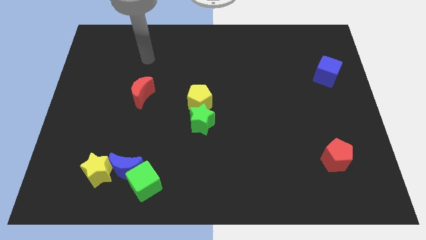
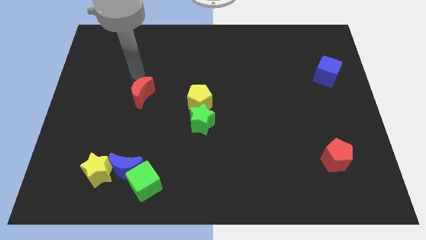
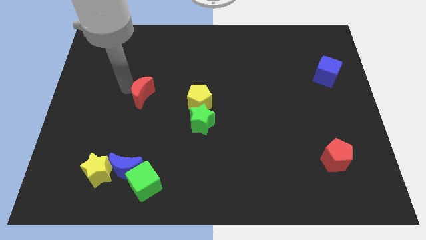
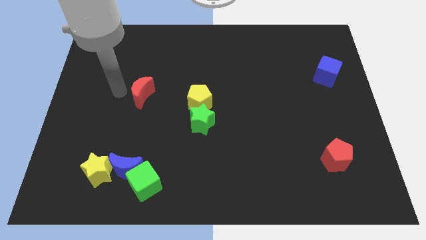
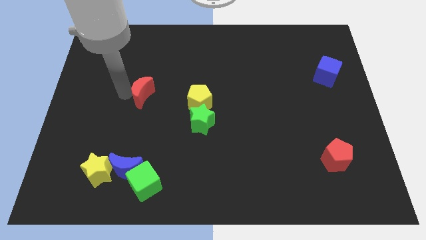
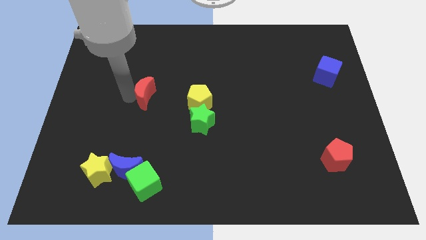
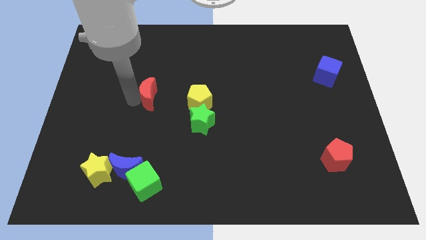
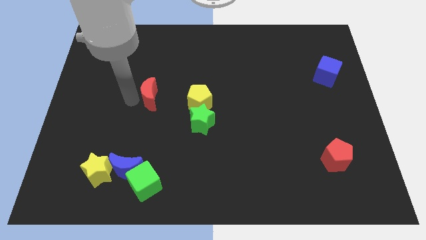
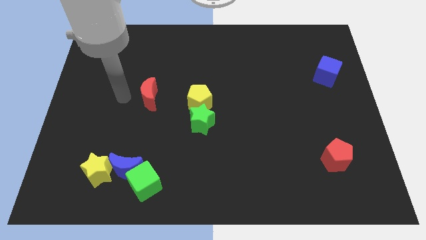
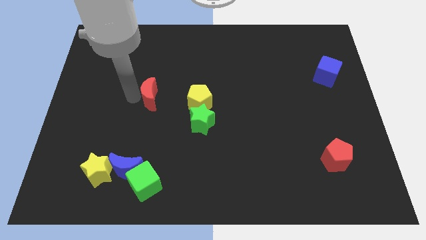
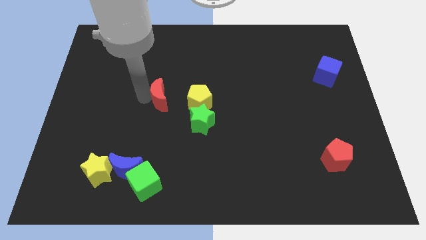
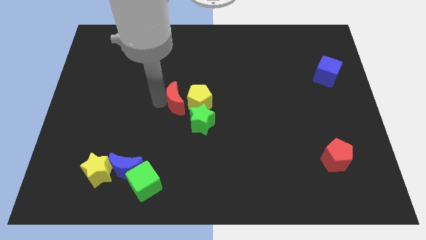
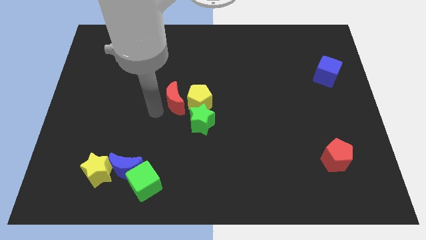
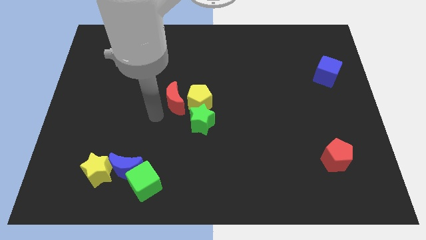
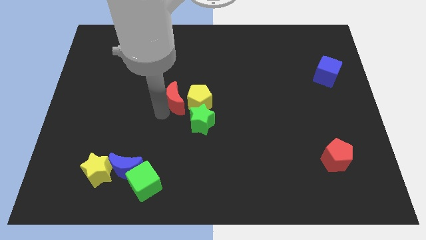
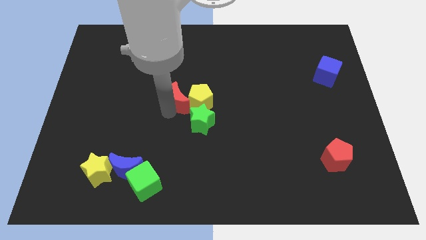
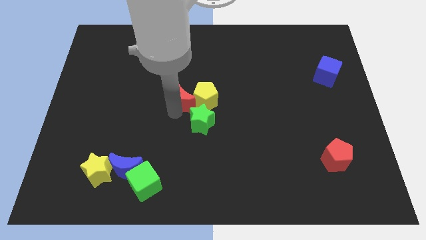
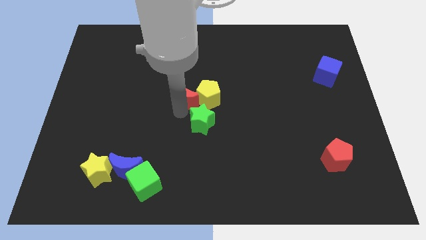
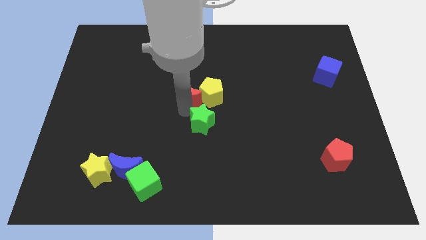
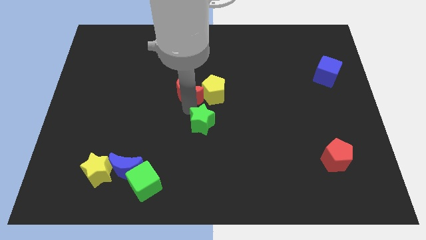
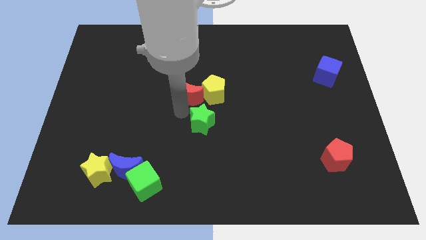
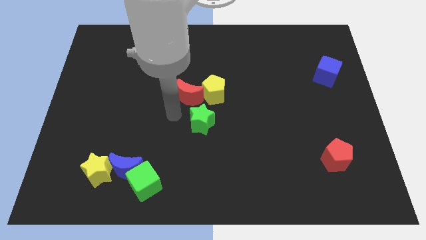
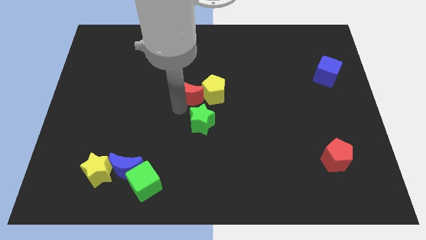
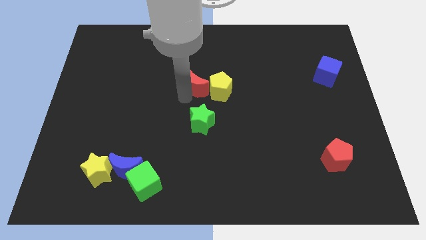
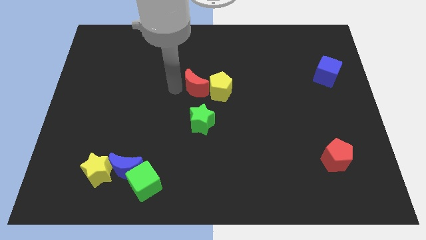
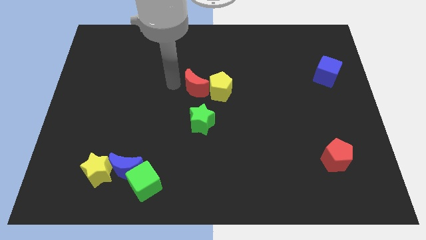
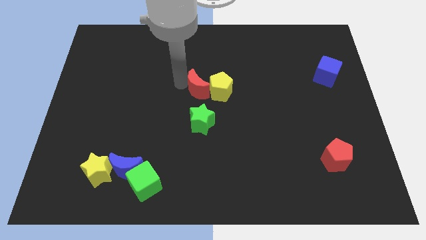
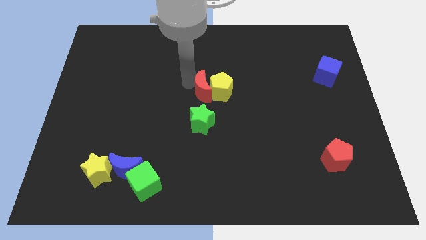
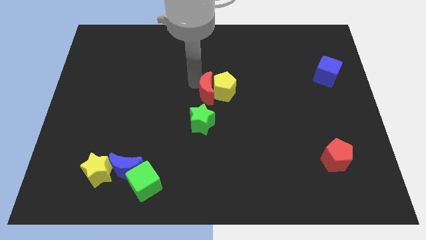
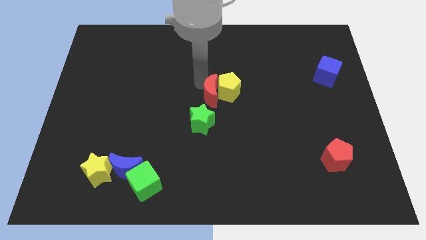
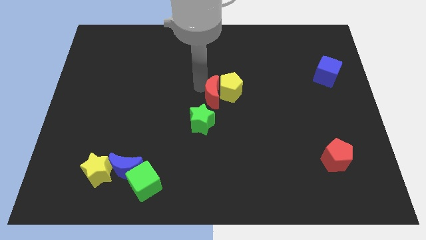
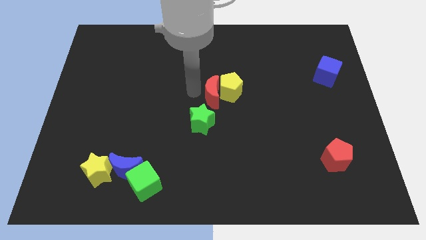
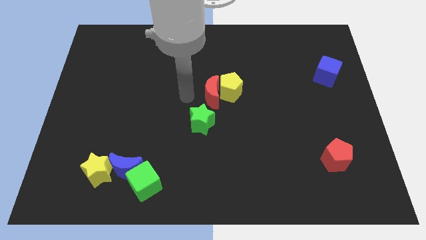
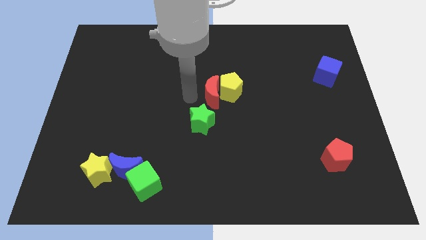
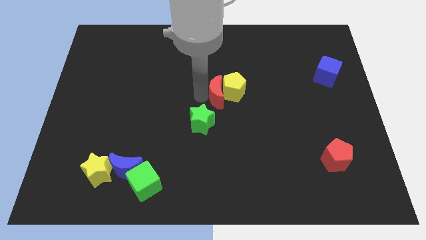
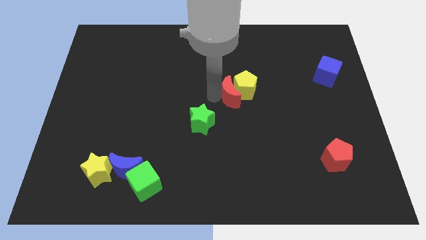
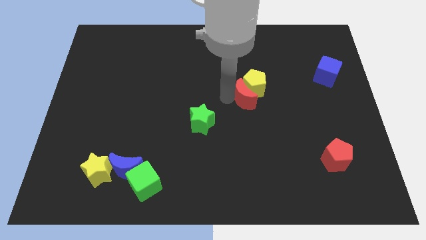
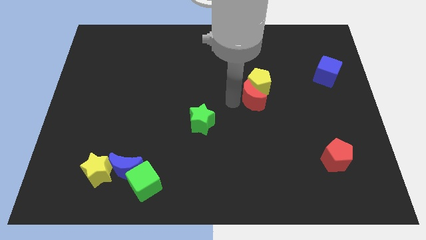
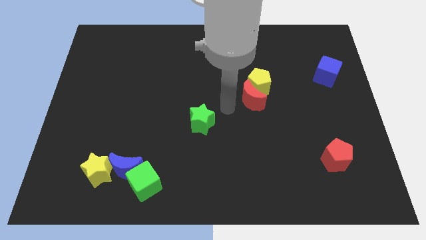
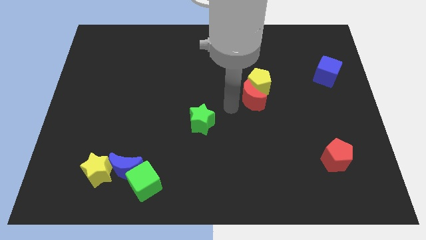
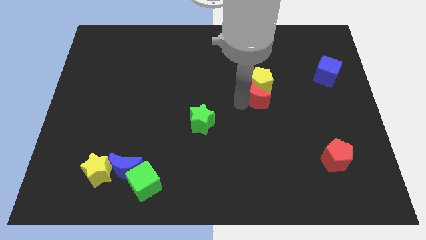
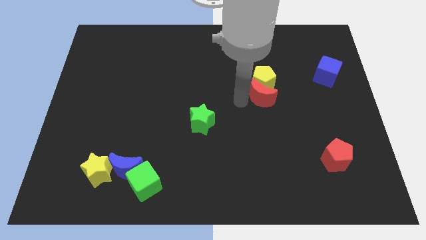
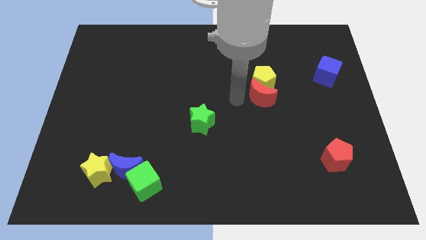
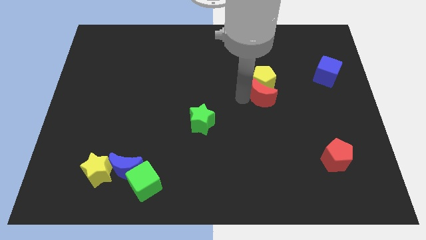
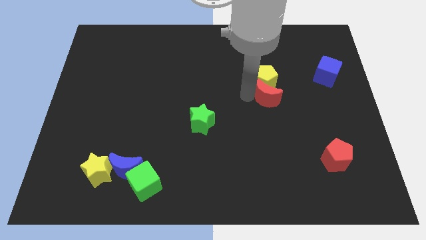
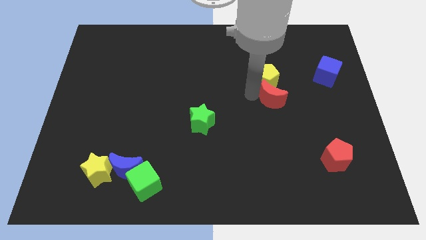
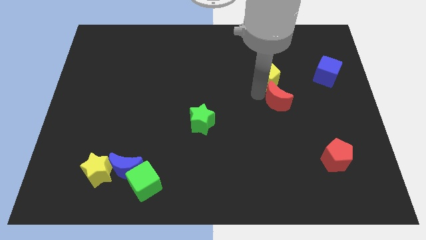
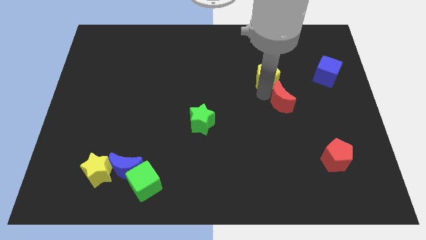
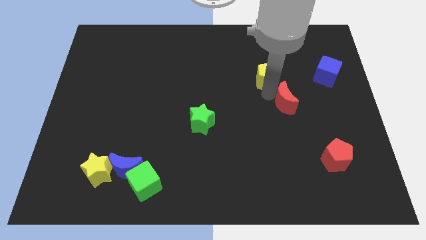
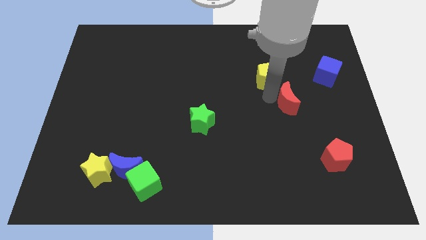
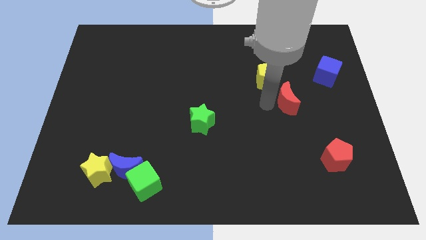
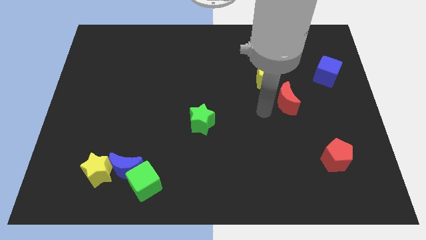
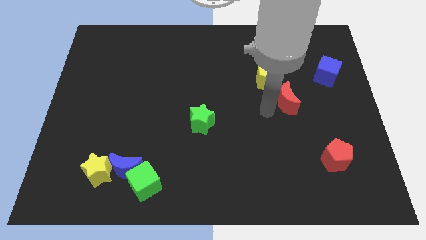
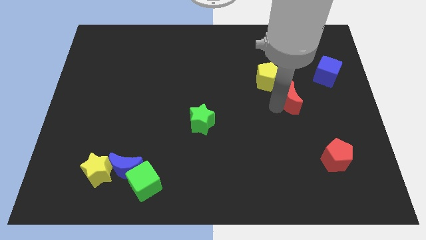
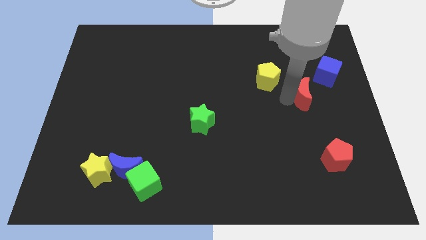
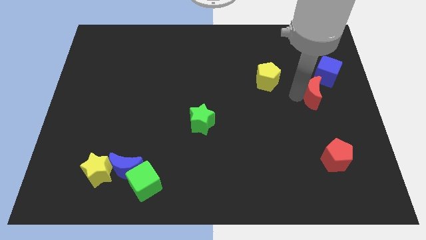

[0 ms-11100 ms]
put the red moon to the bottom side of the blue cube

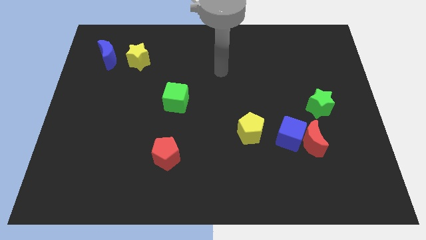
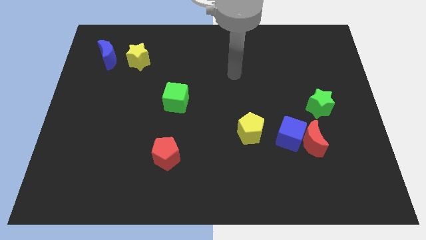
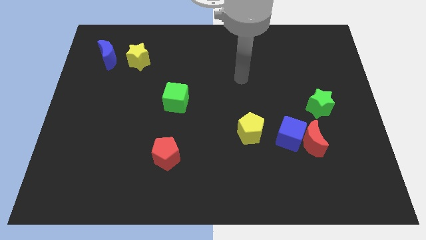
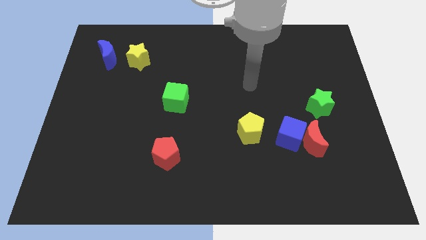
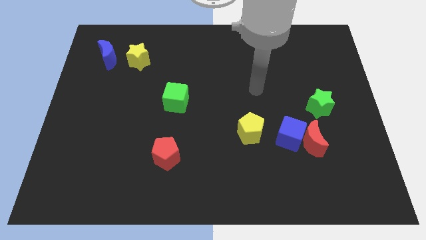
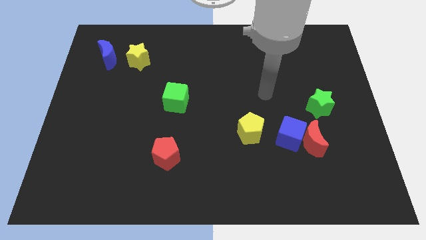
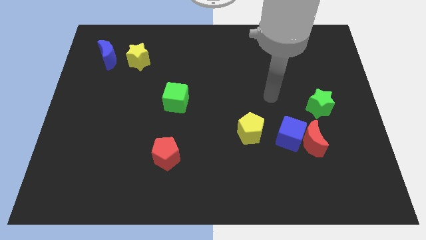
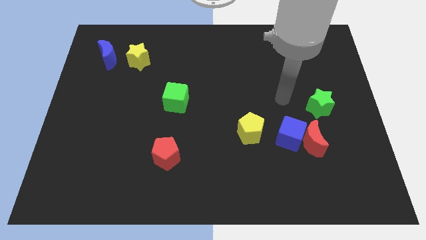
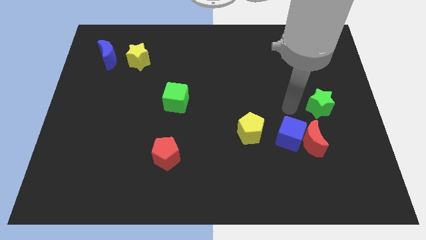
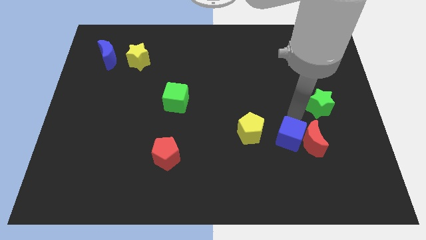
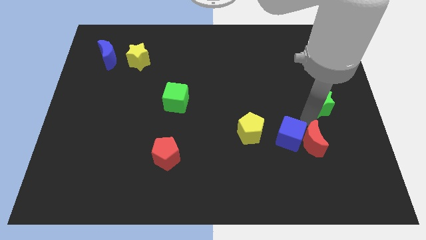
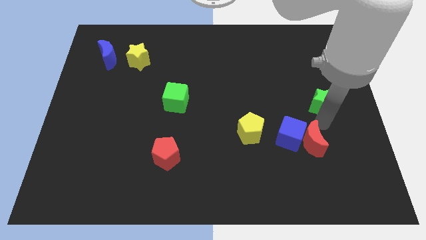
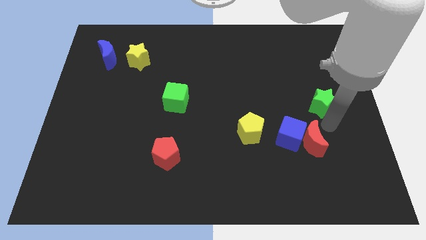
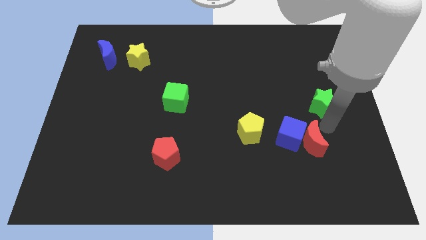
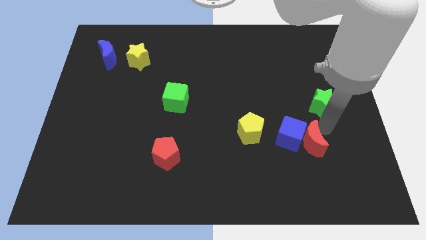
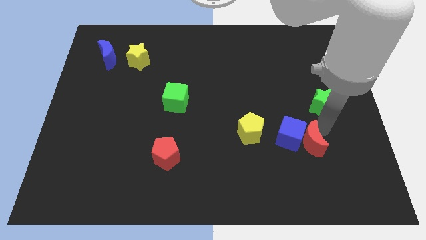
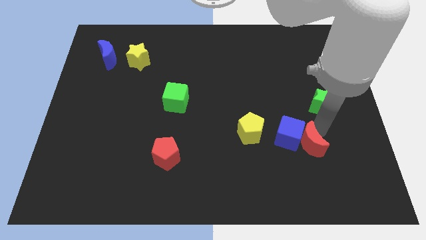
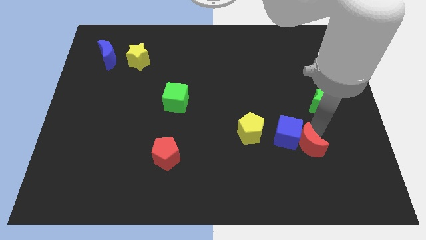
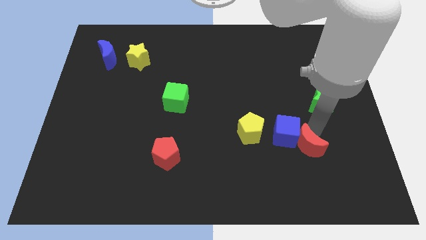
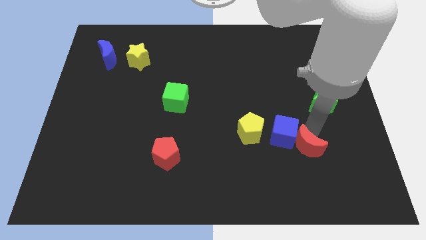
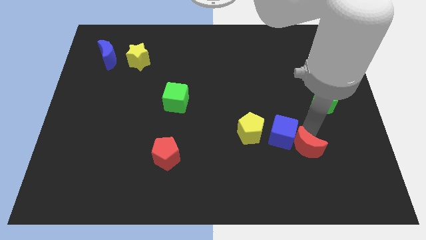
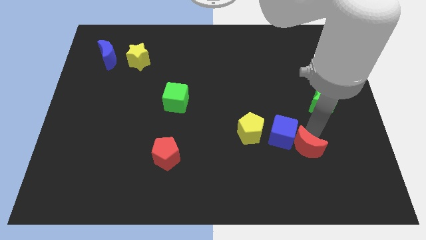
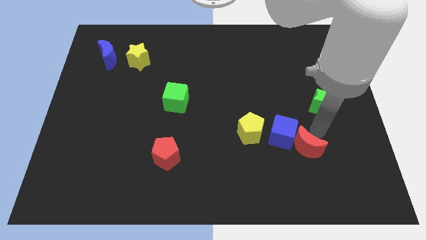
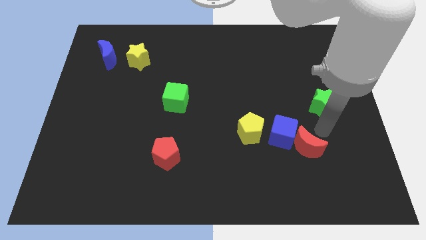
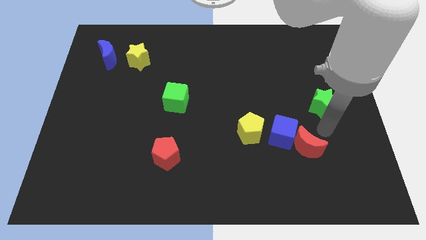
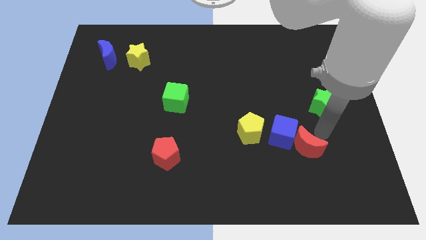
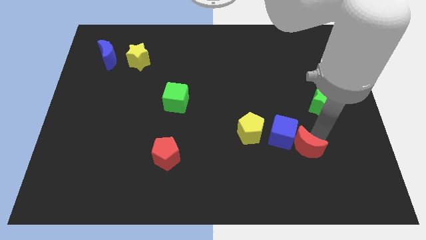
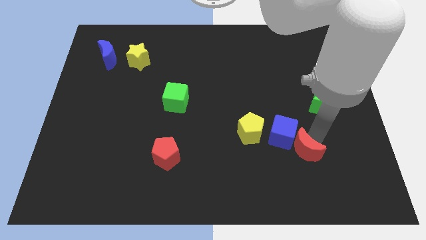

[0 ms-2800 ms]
slide the red moon below the blue cube
